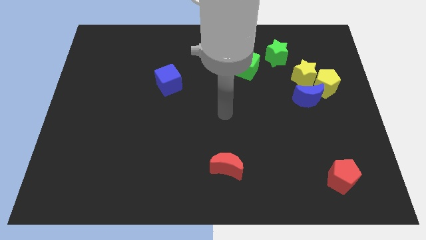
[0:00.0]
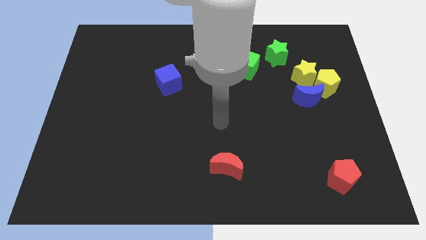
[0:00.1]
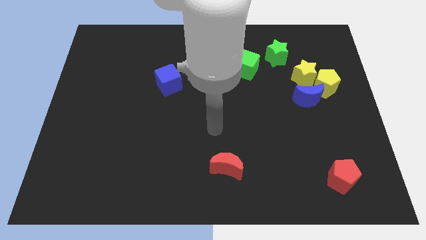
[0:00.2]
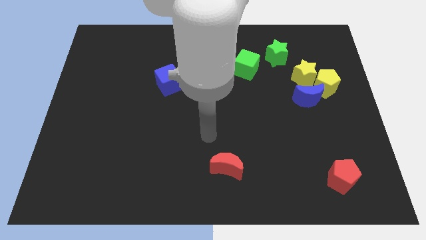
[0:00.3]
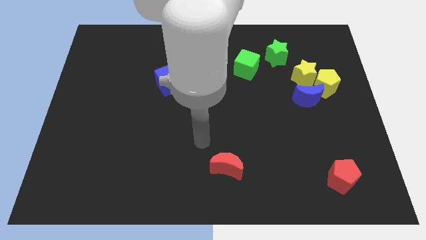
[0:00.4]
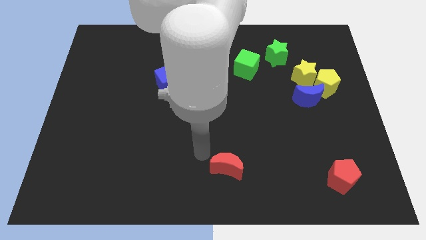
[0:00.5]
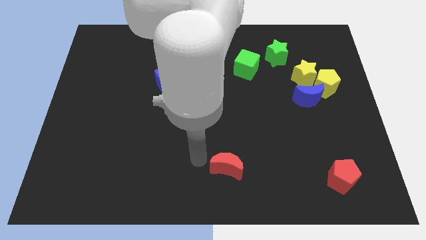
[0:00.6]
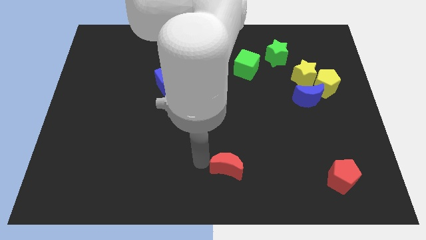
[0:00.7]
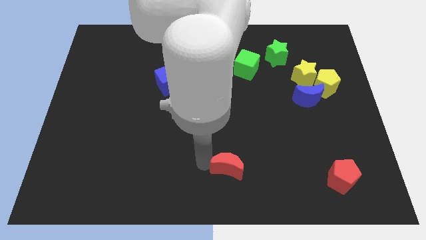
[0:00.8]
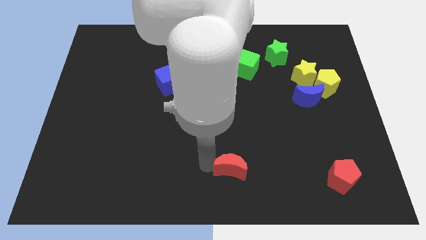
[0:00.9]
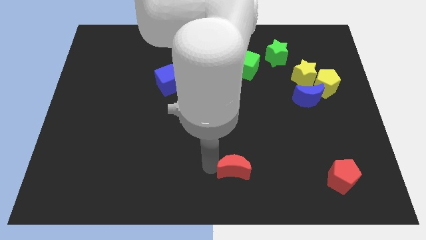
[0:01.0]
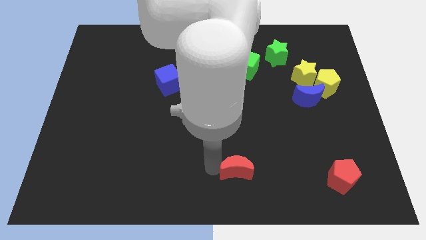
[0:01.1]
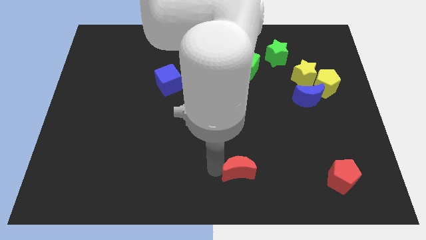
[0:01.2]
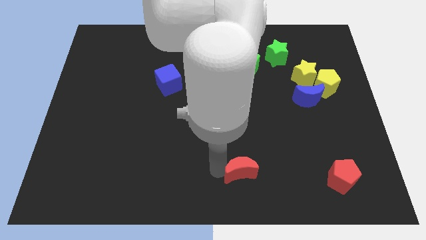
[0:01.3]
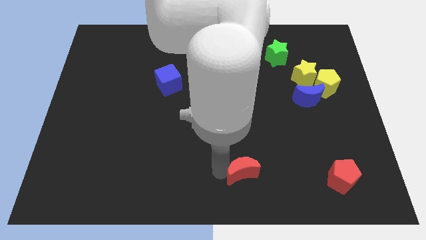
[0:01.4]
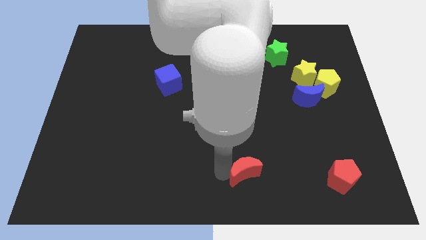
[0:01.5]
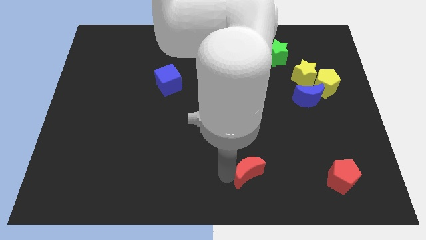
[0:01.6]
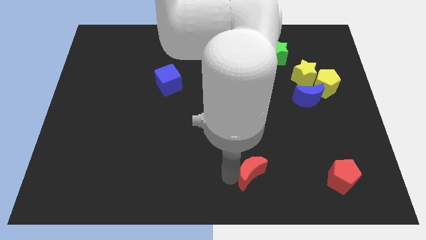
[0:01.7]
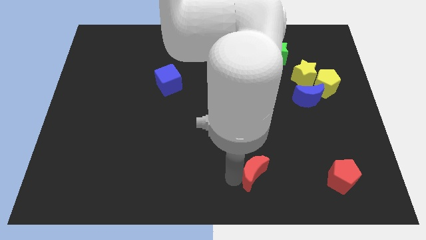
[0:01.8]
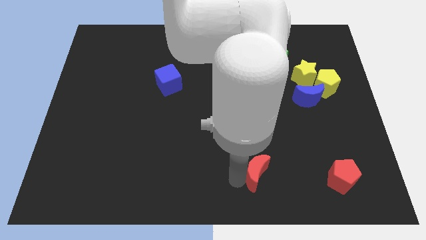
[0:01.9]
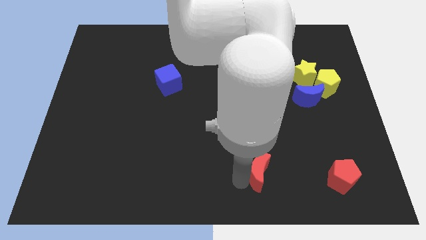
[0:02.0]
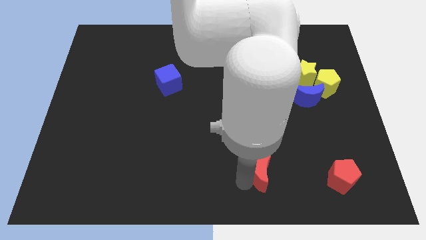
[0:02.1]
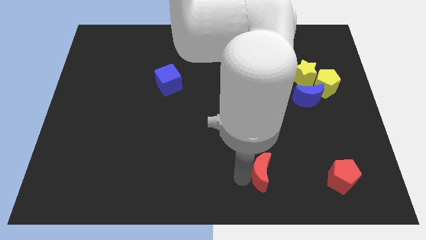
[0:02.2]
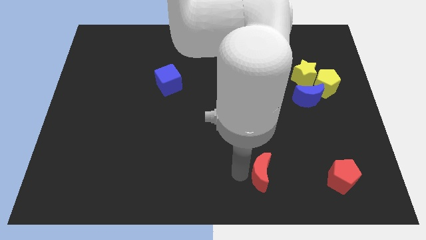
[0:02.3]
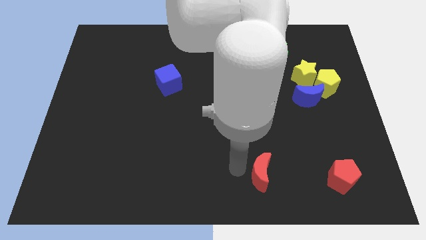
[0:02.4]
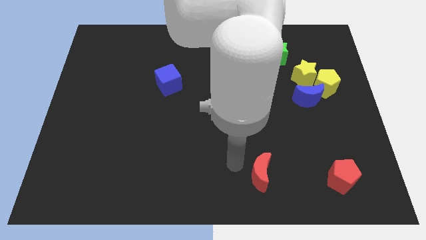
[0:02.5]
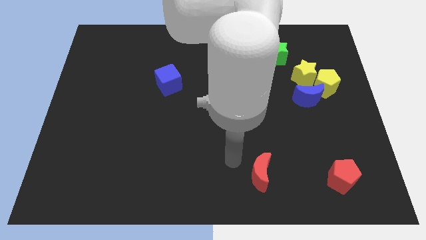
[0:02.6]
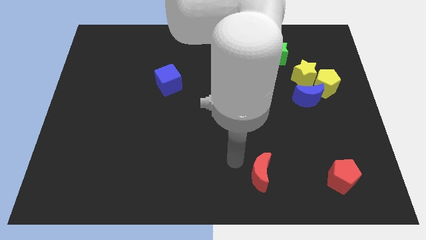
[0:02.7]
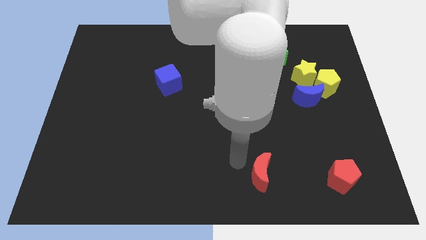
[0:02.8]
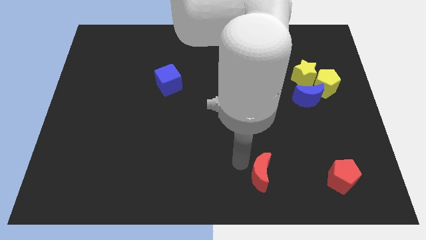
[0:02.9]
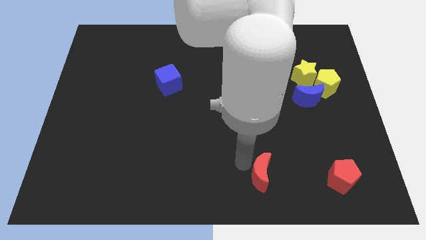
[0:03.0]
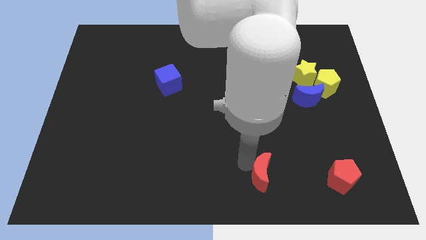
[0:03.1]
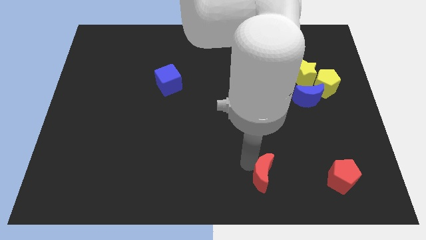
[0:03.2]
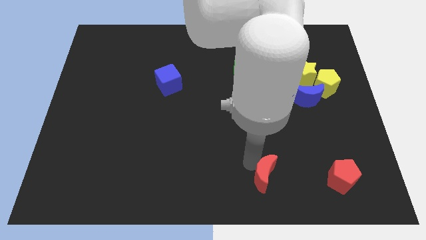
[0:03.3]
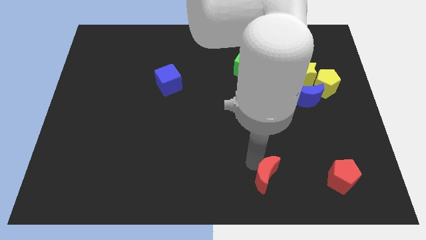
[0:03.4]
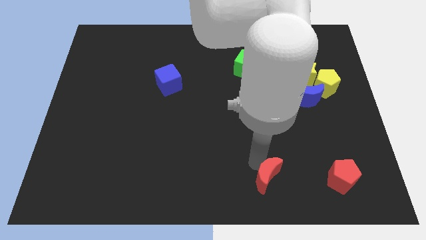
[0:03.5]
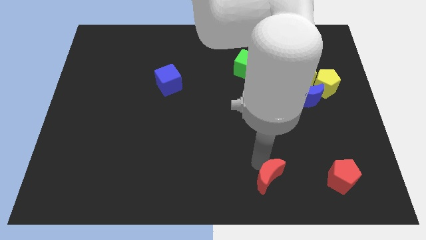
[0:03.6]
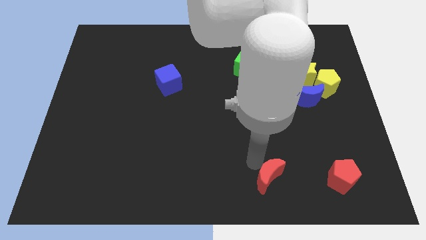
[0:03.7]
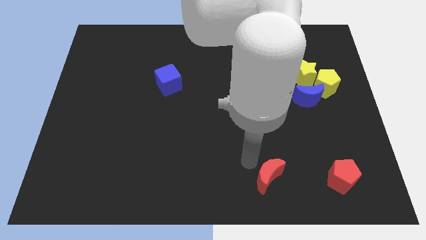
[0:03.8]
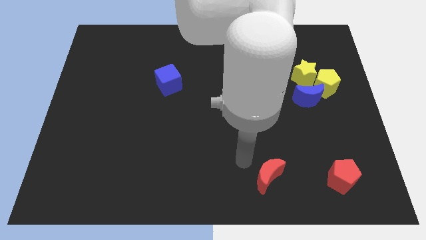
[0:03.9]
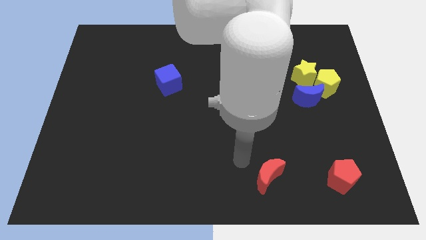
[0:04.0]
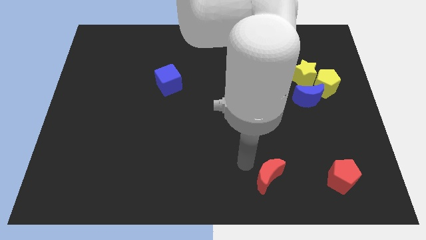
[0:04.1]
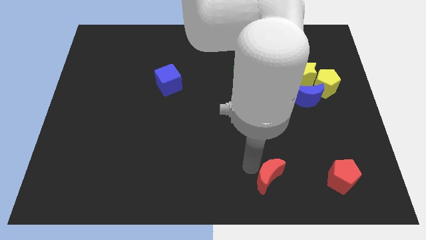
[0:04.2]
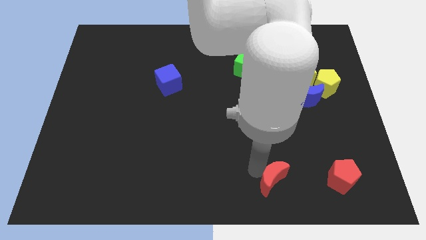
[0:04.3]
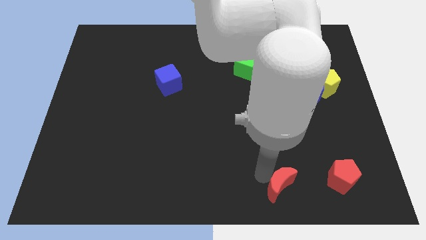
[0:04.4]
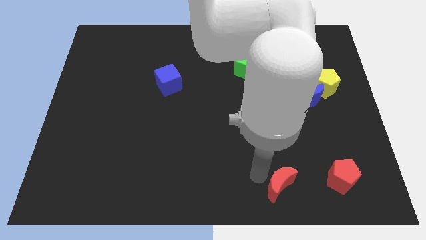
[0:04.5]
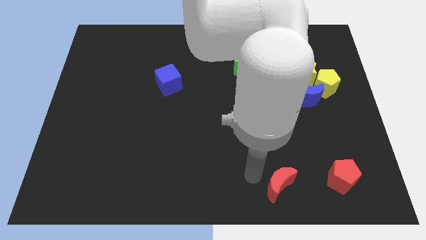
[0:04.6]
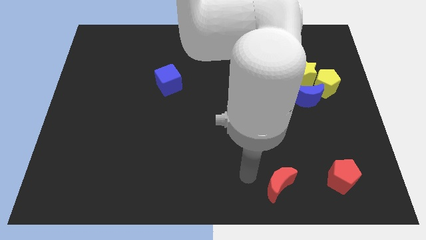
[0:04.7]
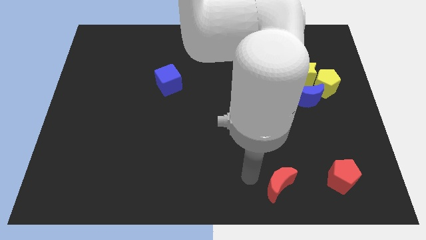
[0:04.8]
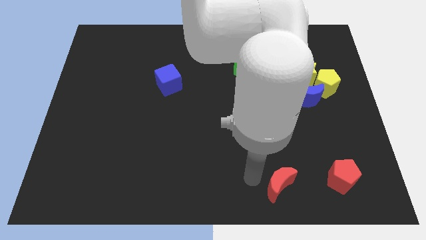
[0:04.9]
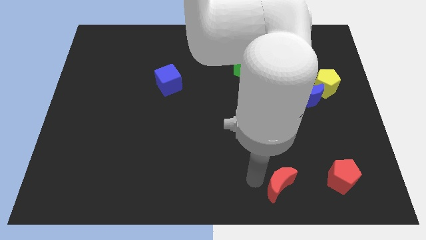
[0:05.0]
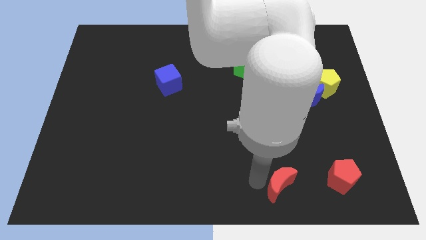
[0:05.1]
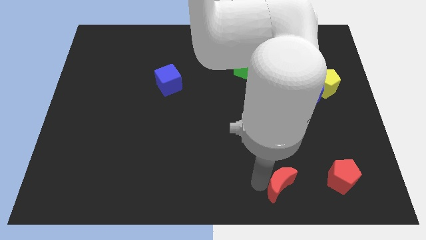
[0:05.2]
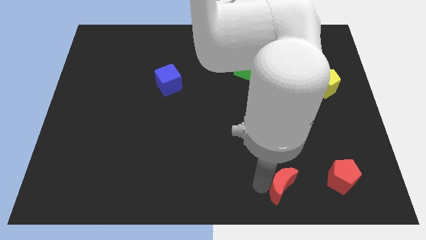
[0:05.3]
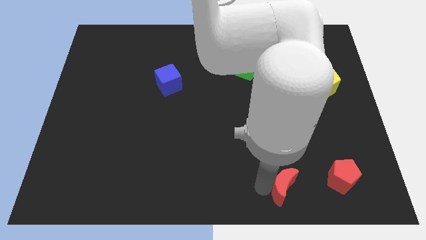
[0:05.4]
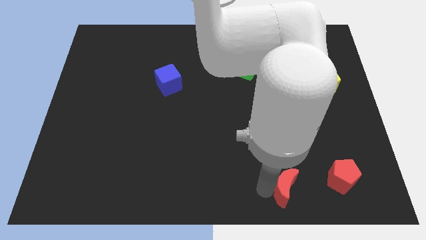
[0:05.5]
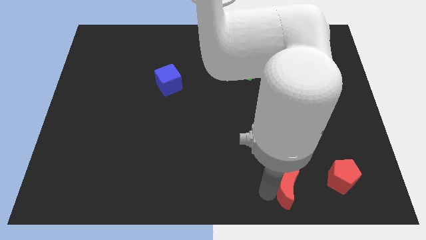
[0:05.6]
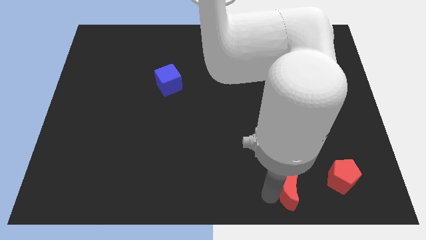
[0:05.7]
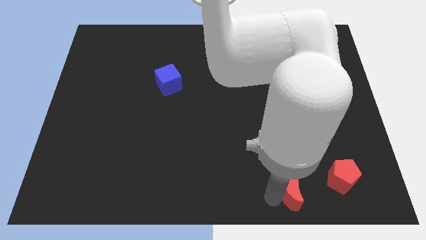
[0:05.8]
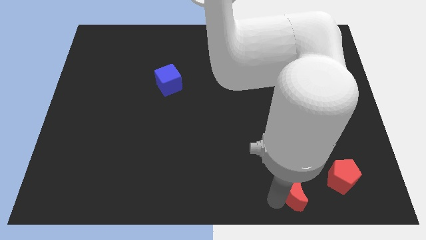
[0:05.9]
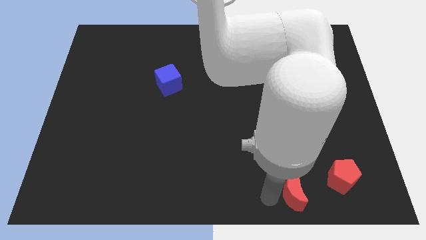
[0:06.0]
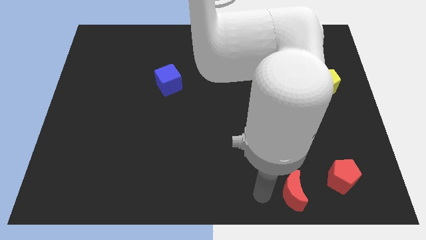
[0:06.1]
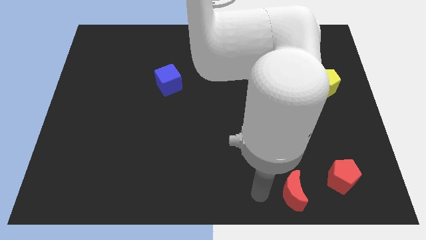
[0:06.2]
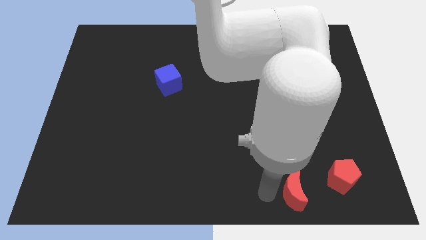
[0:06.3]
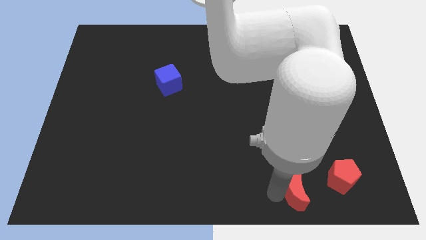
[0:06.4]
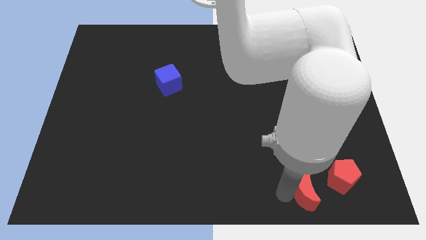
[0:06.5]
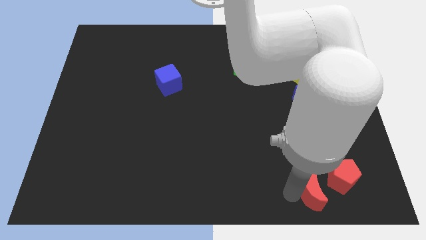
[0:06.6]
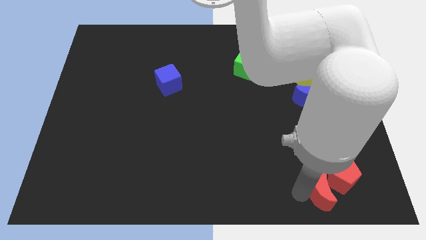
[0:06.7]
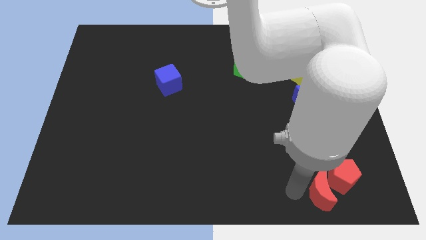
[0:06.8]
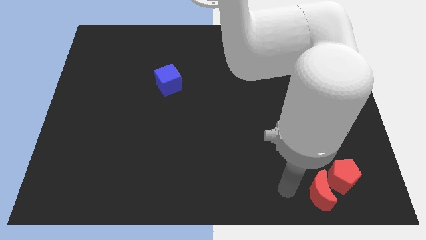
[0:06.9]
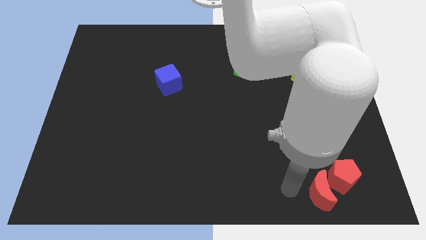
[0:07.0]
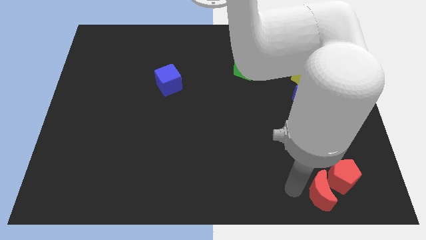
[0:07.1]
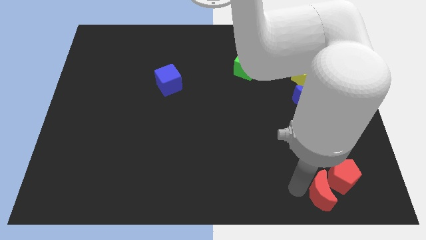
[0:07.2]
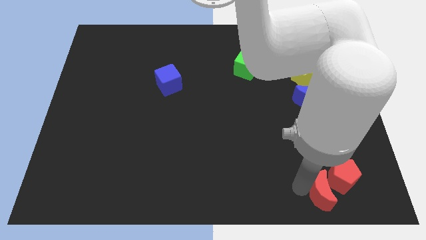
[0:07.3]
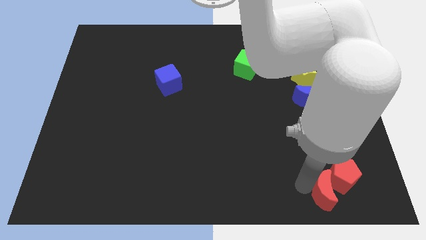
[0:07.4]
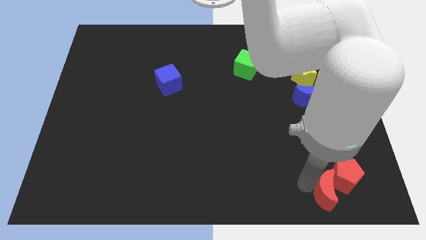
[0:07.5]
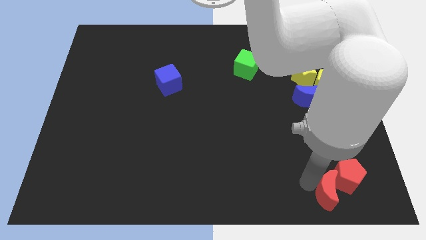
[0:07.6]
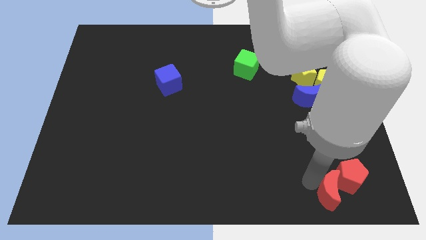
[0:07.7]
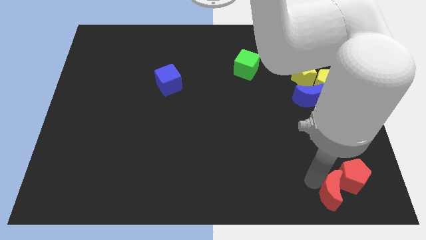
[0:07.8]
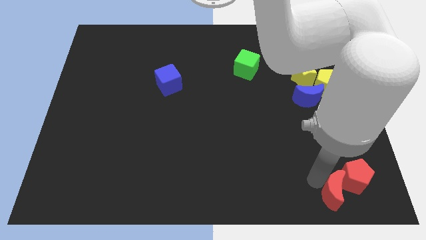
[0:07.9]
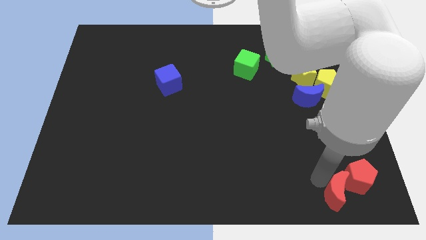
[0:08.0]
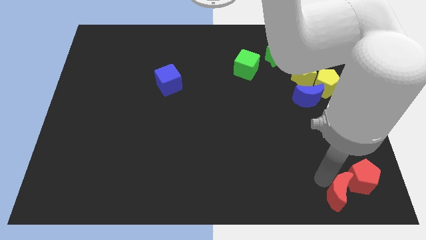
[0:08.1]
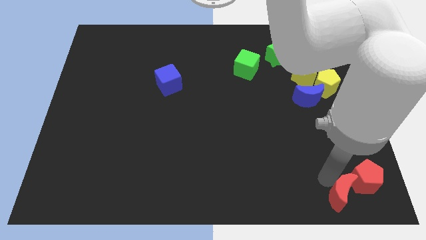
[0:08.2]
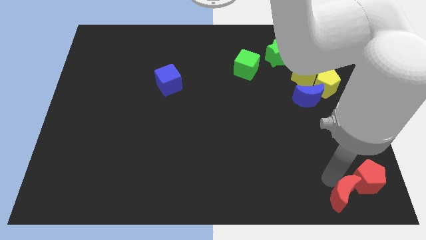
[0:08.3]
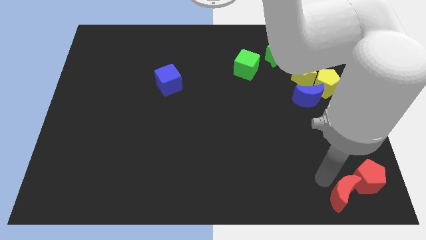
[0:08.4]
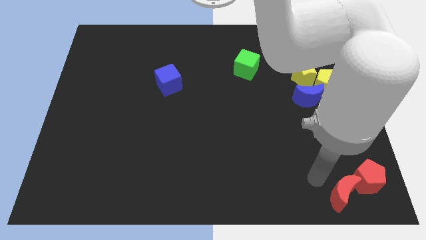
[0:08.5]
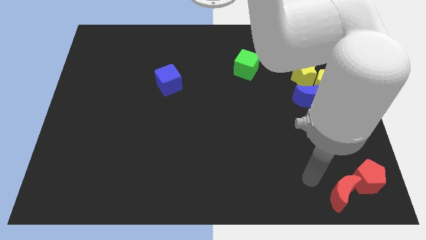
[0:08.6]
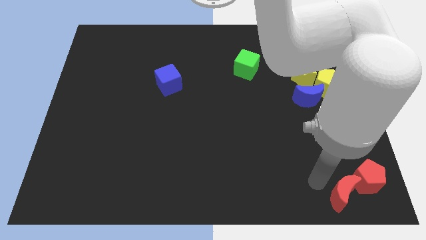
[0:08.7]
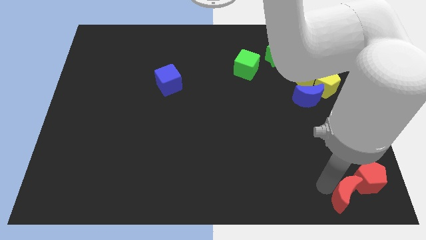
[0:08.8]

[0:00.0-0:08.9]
put the red moon to the bottom right of the board
